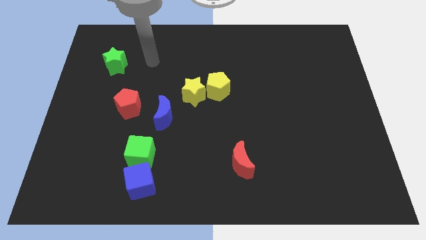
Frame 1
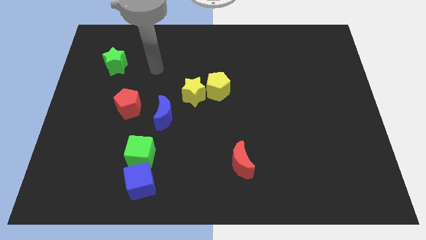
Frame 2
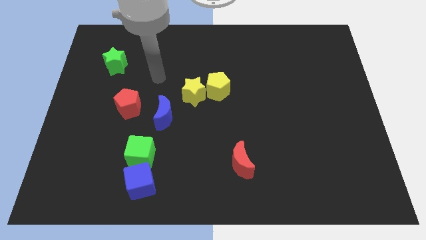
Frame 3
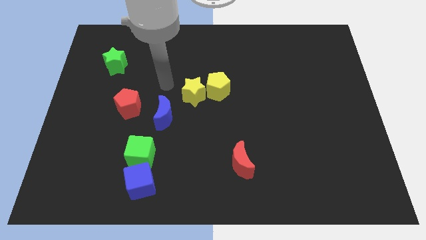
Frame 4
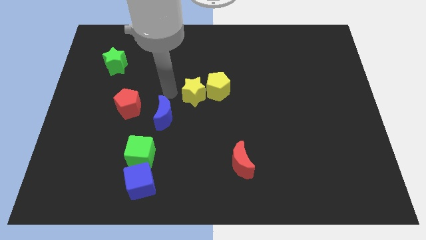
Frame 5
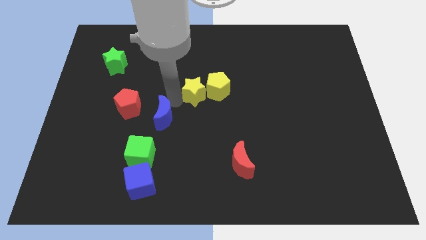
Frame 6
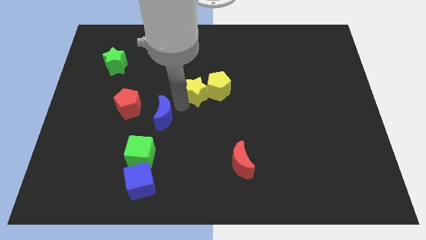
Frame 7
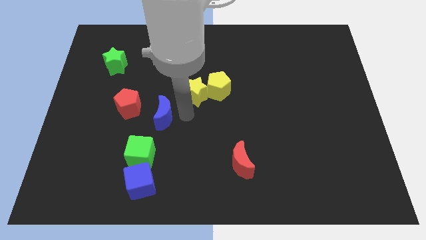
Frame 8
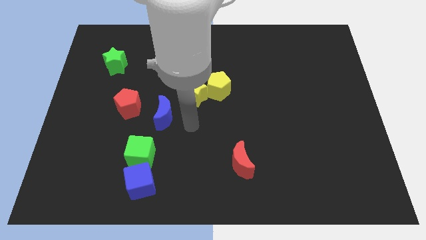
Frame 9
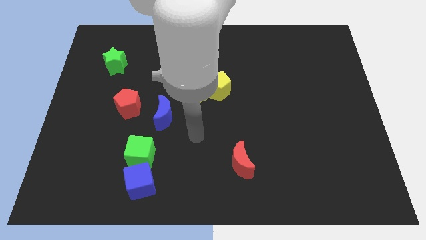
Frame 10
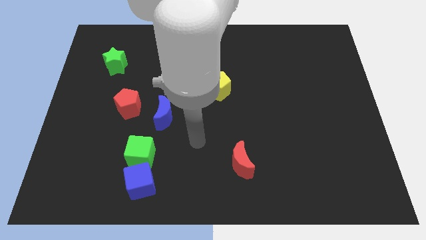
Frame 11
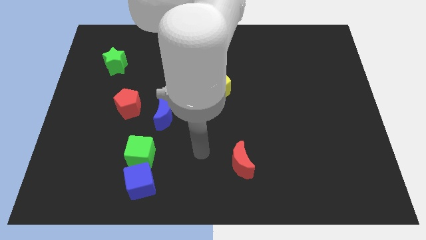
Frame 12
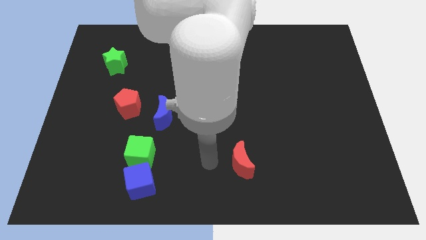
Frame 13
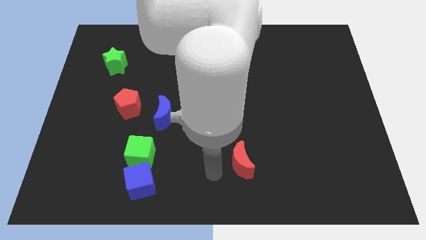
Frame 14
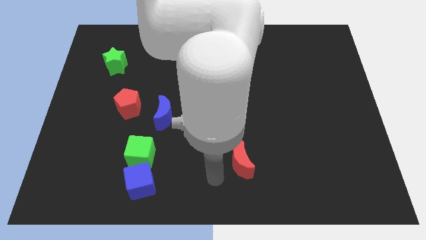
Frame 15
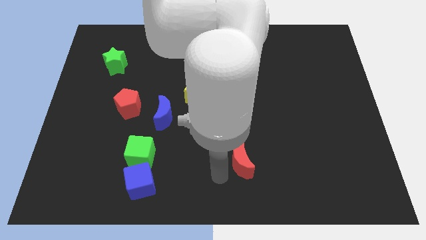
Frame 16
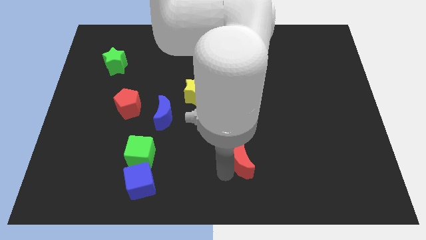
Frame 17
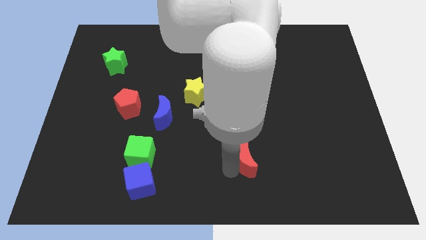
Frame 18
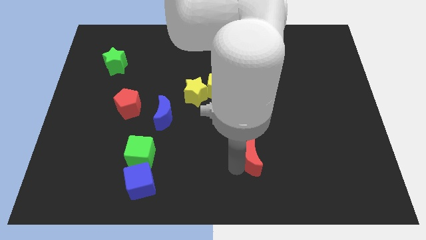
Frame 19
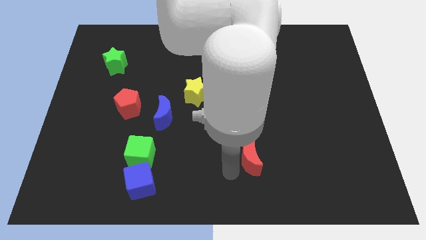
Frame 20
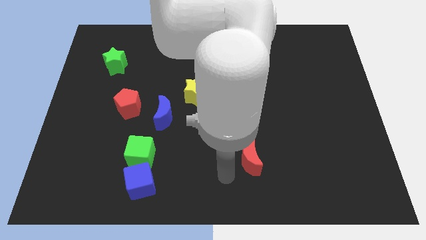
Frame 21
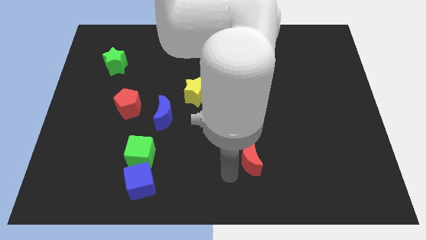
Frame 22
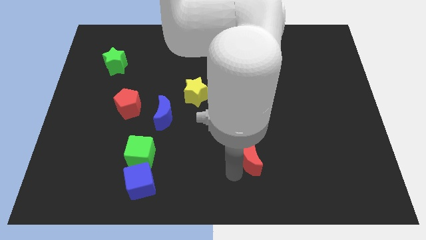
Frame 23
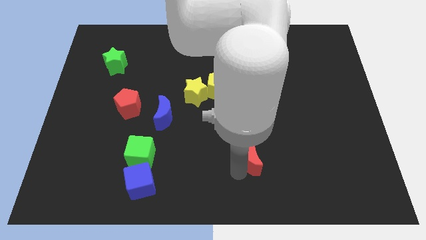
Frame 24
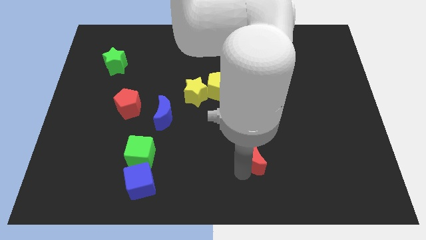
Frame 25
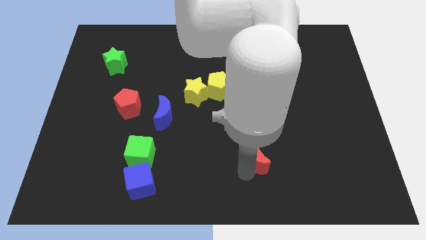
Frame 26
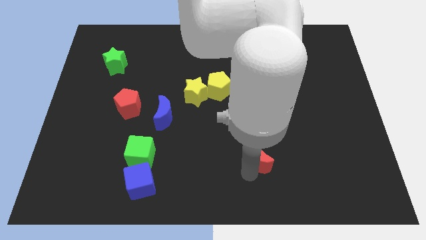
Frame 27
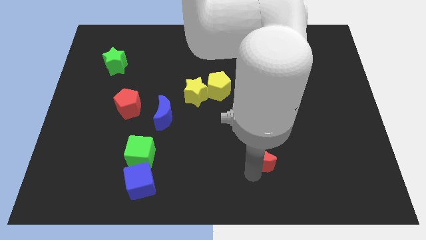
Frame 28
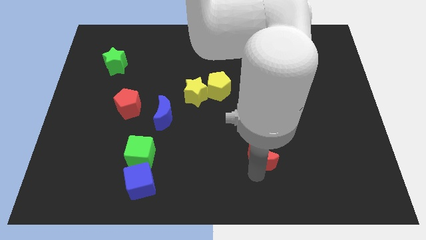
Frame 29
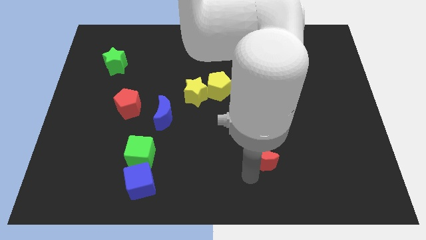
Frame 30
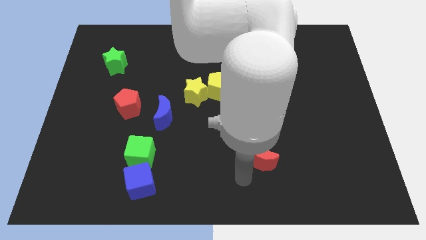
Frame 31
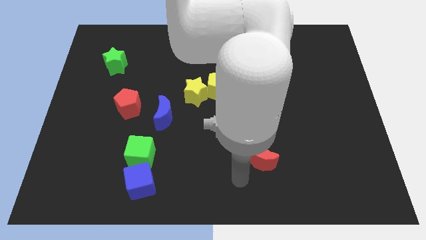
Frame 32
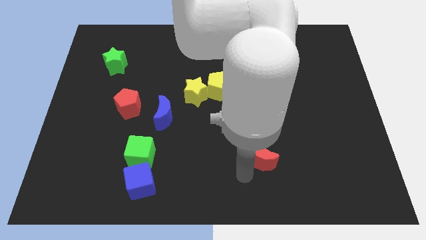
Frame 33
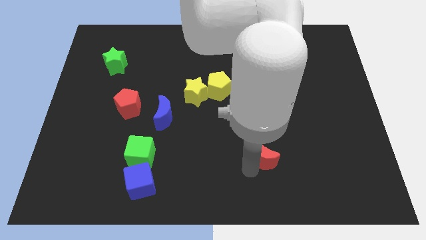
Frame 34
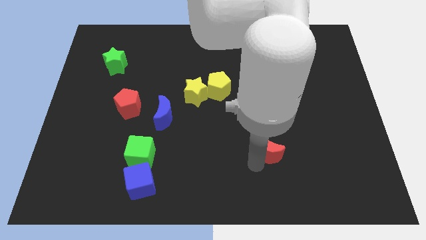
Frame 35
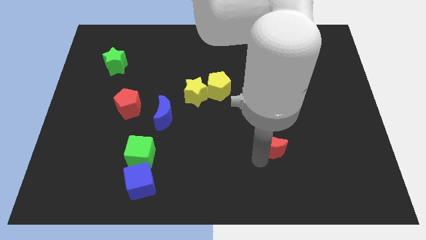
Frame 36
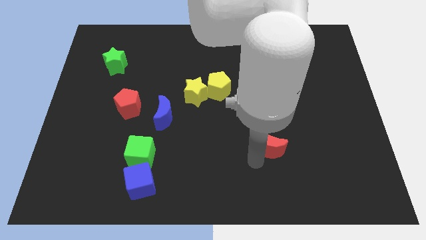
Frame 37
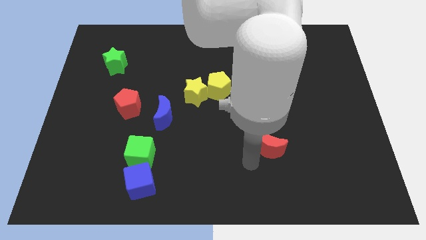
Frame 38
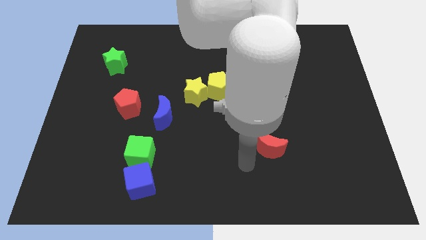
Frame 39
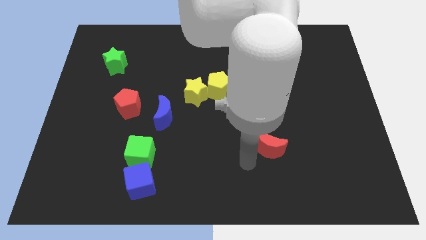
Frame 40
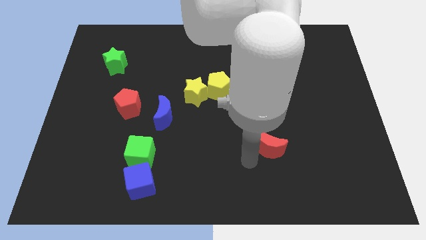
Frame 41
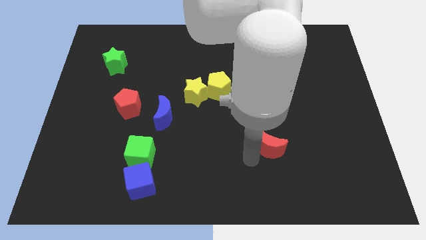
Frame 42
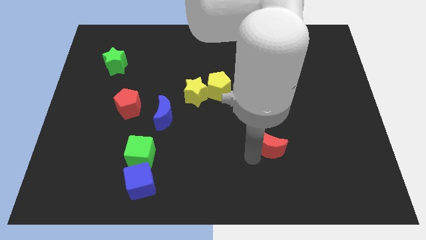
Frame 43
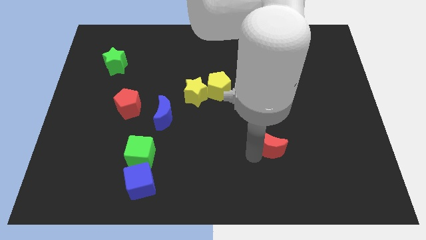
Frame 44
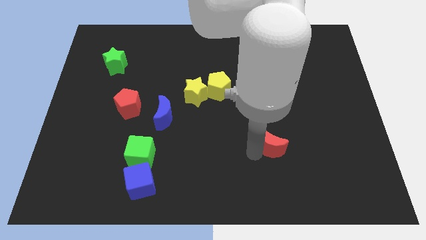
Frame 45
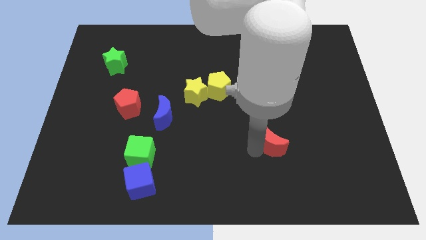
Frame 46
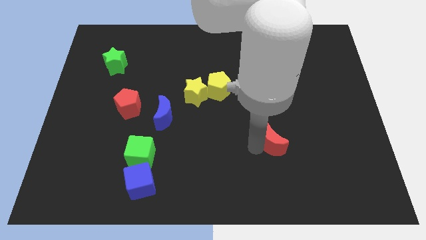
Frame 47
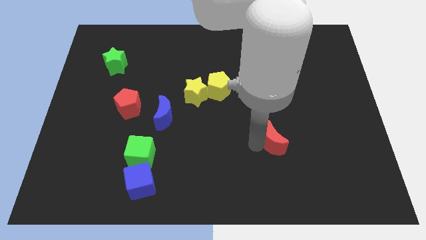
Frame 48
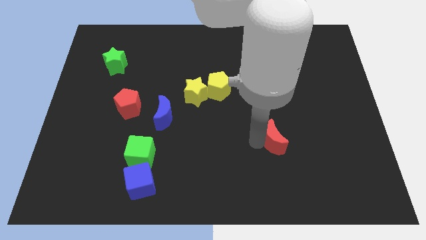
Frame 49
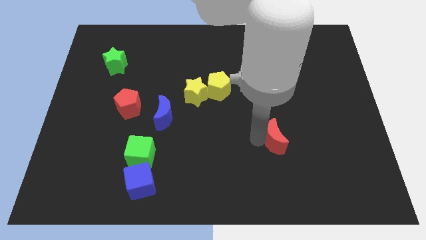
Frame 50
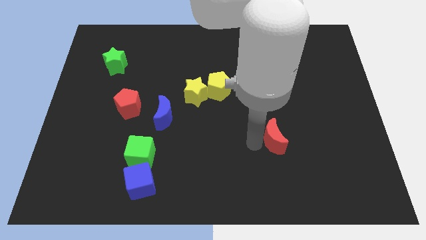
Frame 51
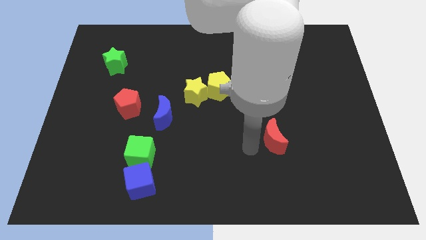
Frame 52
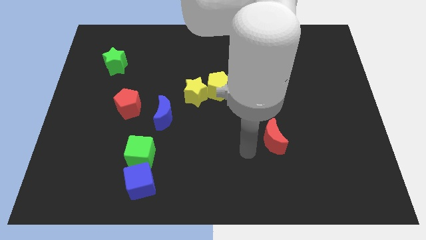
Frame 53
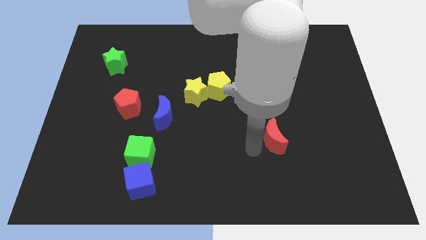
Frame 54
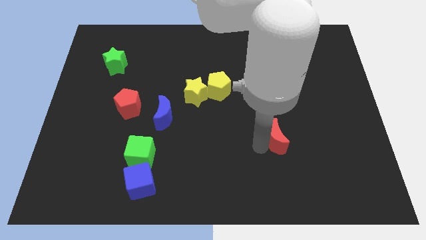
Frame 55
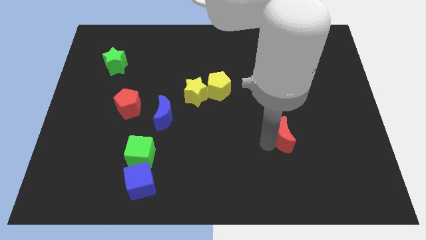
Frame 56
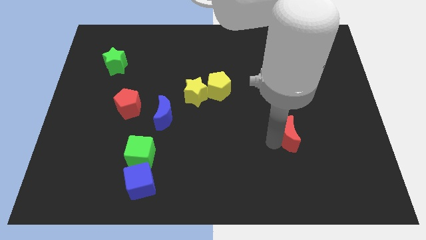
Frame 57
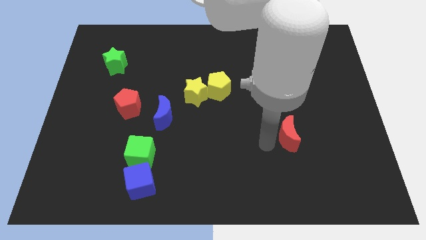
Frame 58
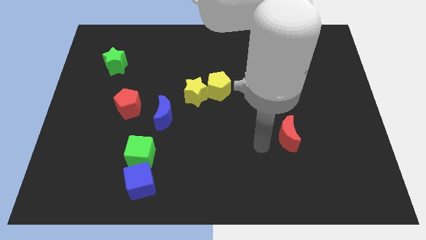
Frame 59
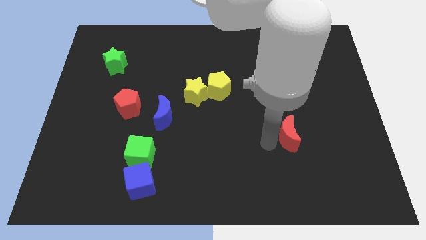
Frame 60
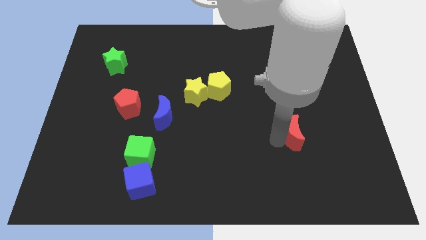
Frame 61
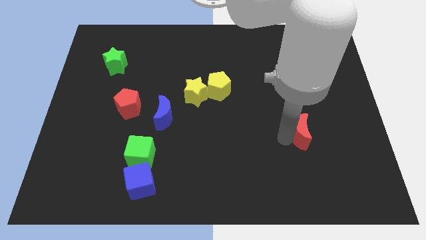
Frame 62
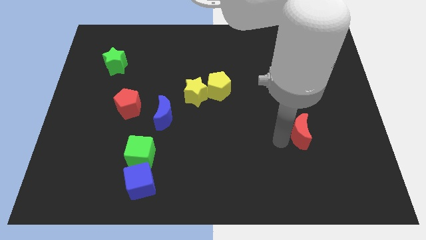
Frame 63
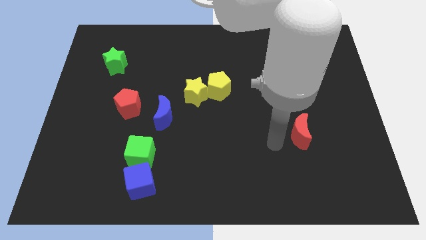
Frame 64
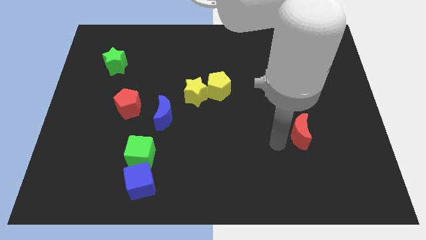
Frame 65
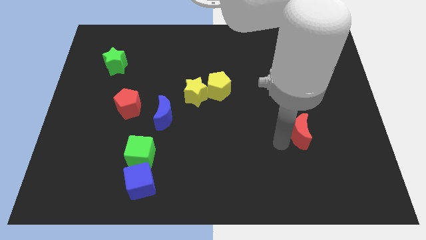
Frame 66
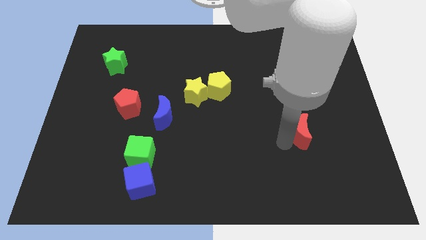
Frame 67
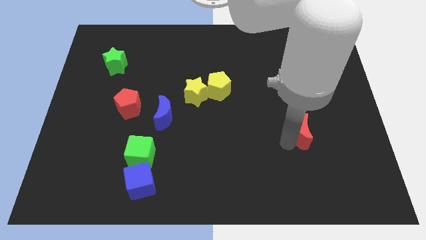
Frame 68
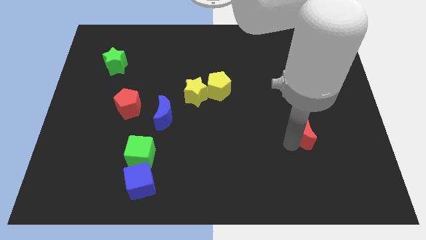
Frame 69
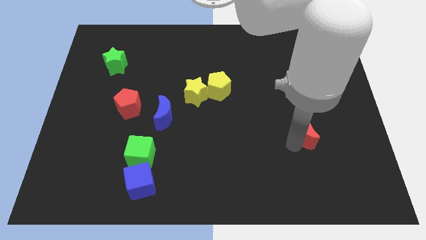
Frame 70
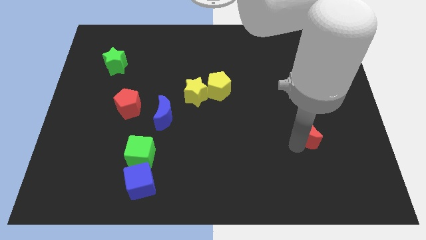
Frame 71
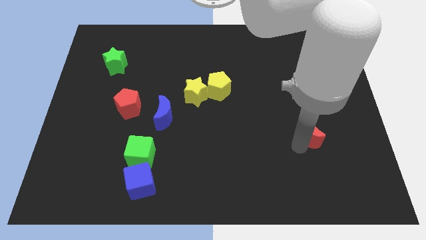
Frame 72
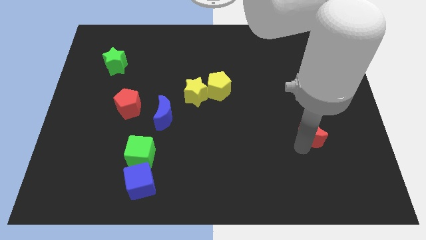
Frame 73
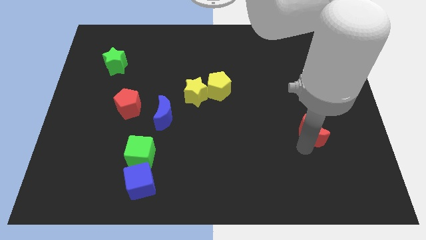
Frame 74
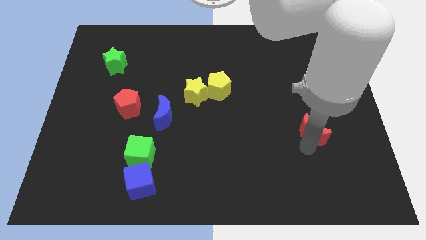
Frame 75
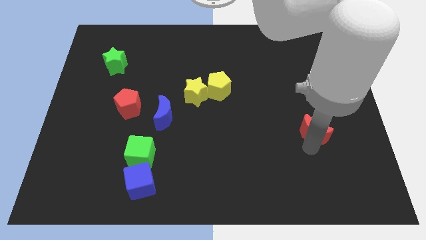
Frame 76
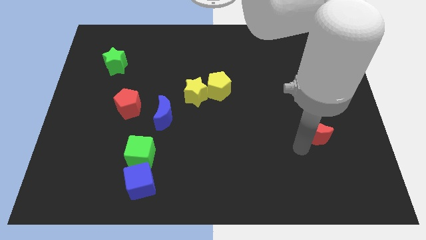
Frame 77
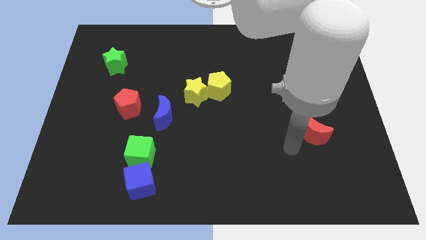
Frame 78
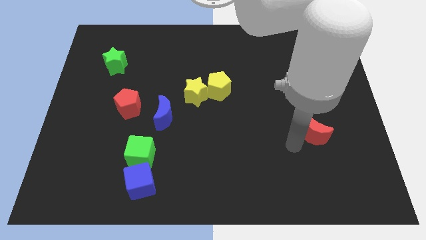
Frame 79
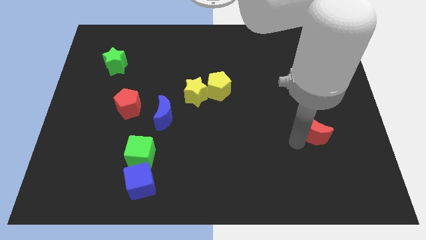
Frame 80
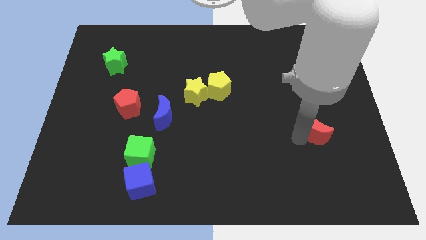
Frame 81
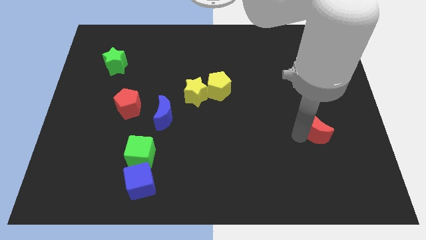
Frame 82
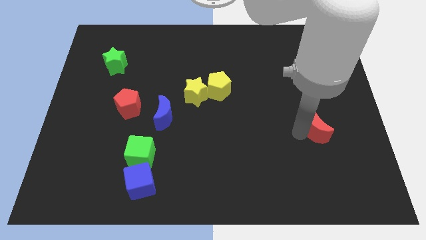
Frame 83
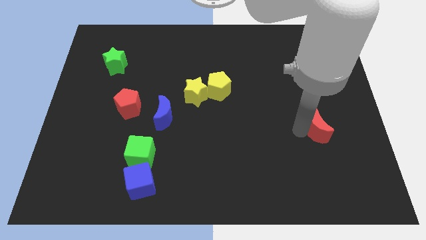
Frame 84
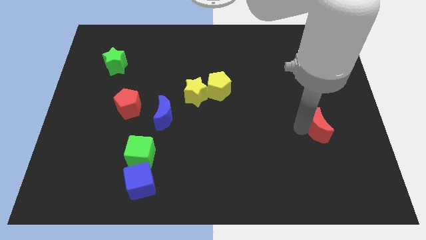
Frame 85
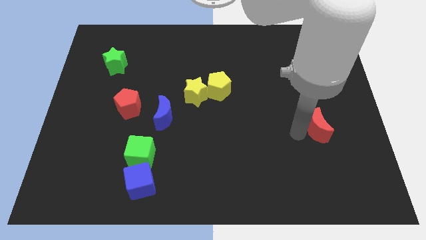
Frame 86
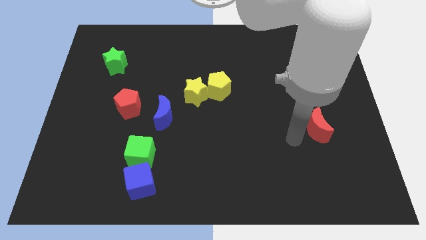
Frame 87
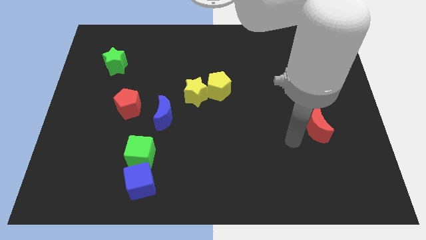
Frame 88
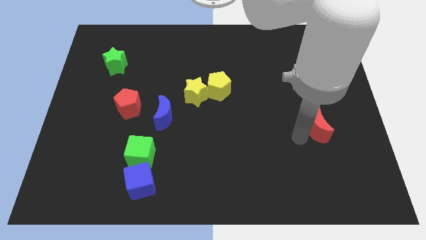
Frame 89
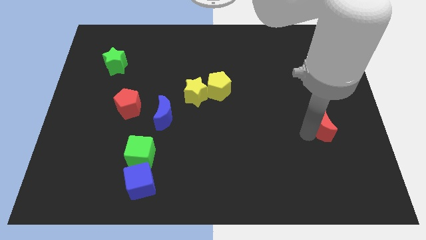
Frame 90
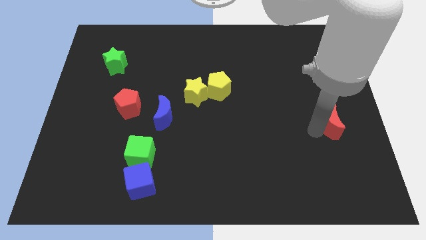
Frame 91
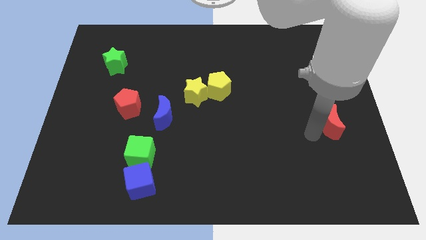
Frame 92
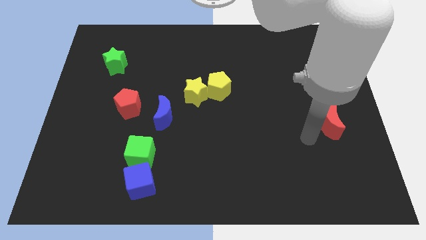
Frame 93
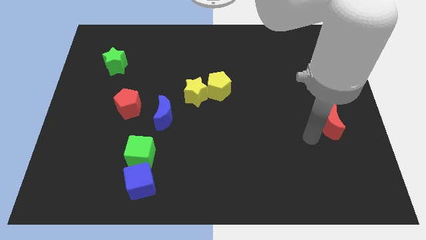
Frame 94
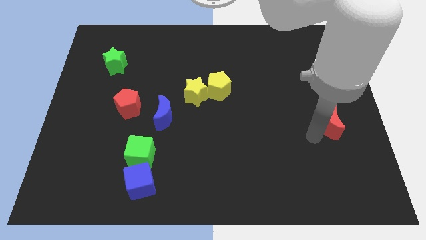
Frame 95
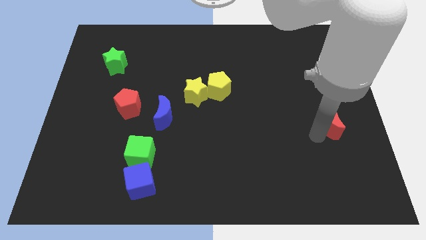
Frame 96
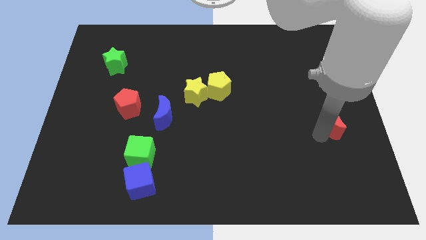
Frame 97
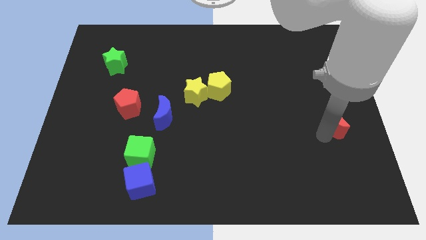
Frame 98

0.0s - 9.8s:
move the red moon to the right side
